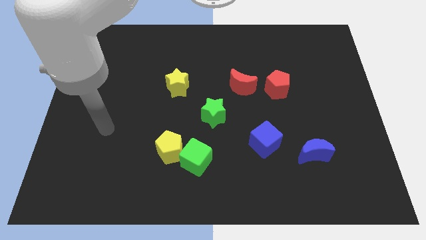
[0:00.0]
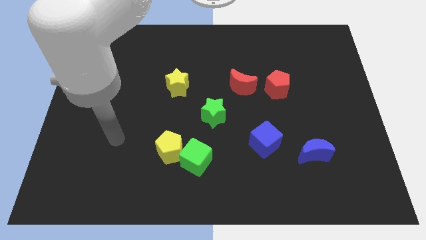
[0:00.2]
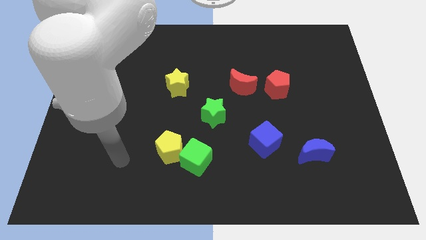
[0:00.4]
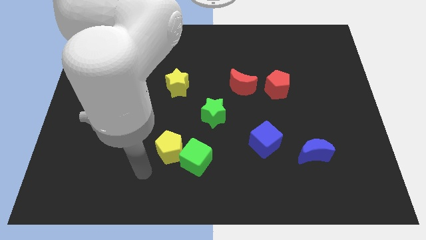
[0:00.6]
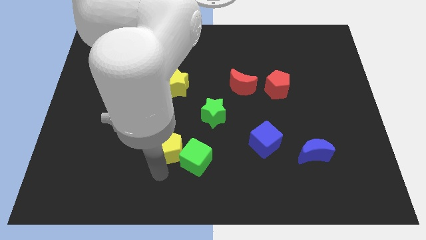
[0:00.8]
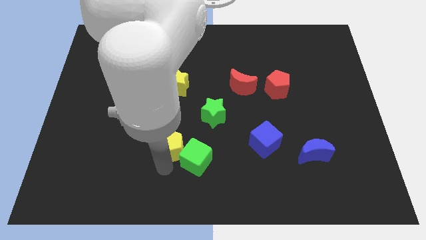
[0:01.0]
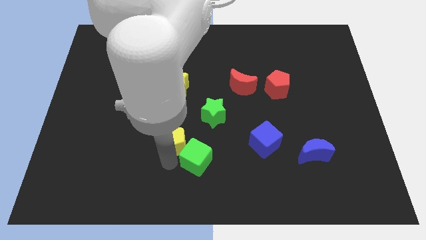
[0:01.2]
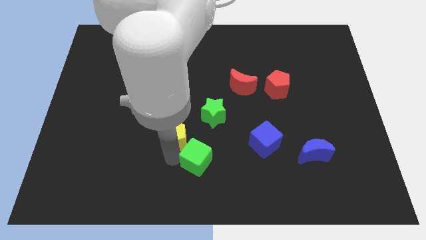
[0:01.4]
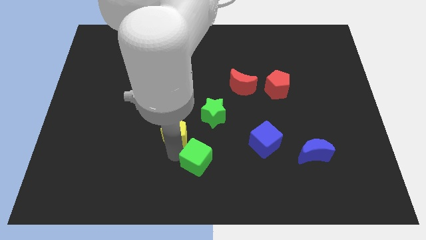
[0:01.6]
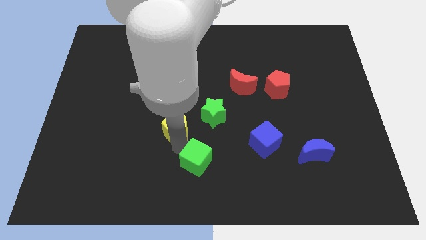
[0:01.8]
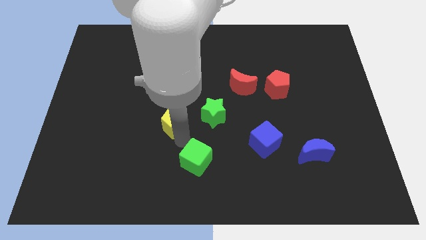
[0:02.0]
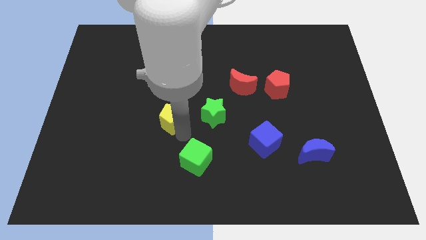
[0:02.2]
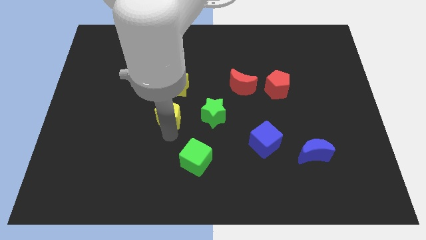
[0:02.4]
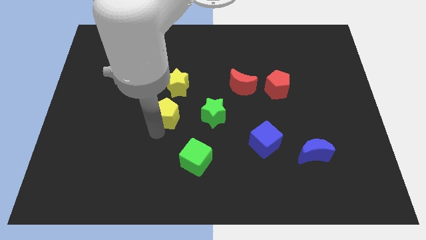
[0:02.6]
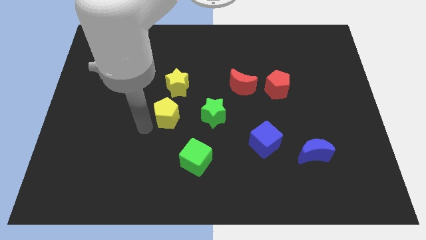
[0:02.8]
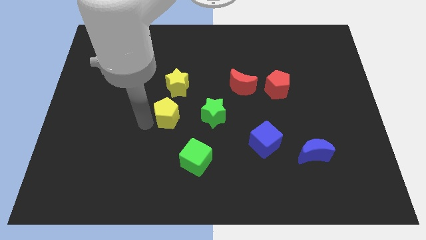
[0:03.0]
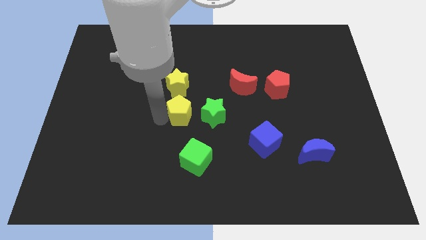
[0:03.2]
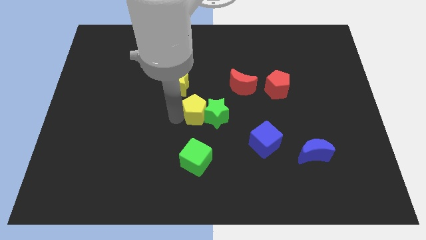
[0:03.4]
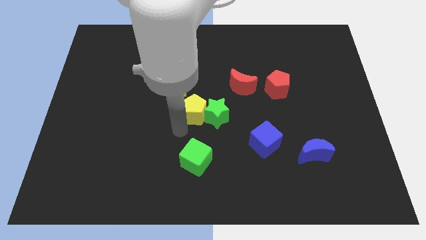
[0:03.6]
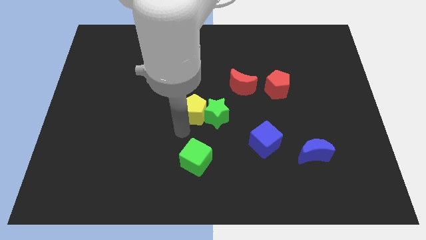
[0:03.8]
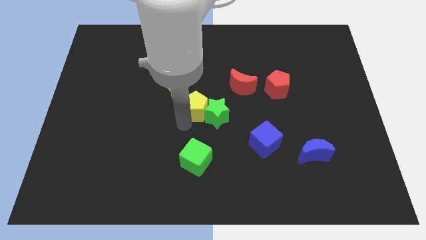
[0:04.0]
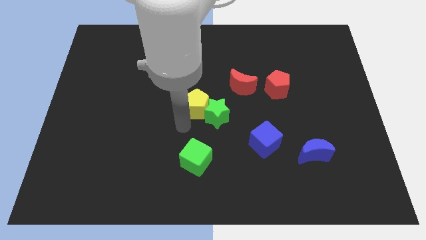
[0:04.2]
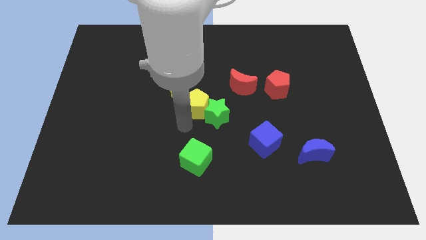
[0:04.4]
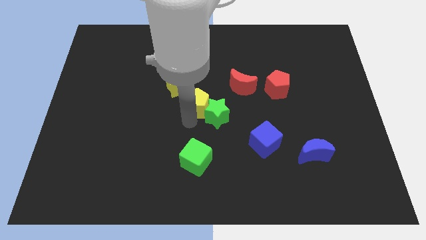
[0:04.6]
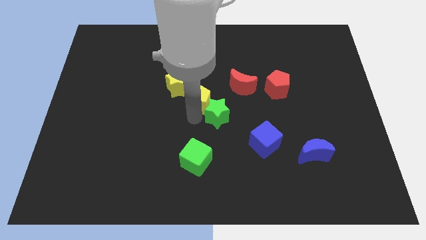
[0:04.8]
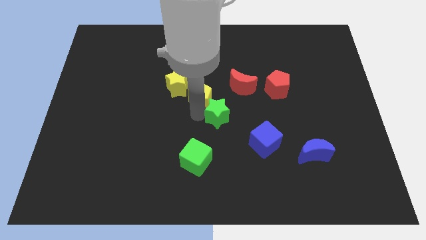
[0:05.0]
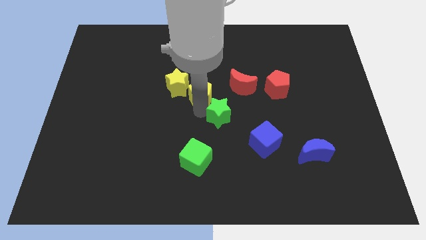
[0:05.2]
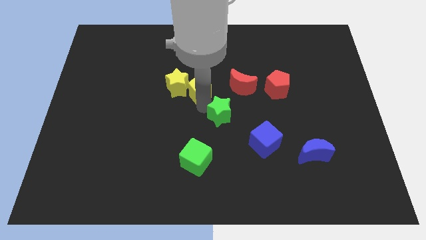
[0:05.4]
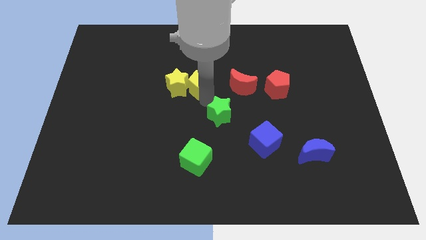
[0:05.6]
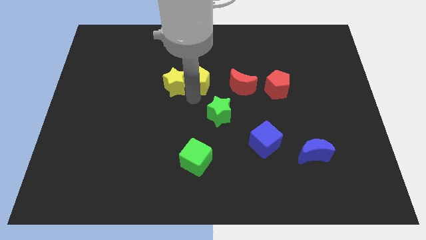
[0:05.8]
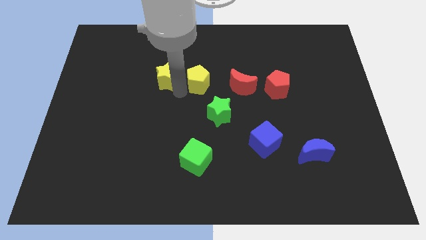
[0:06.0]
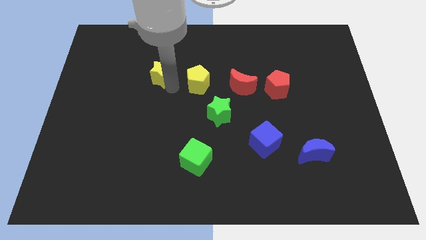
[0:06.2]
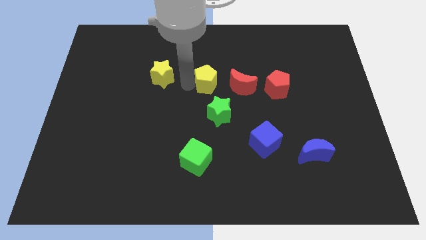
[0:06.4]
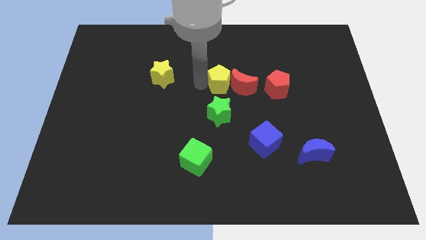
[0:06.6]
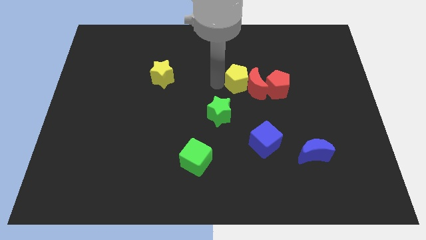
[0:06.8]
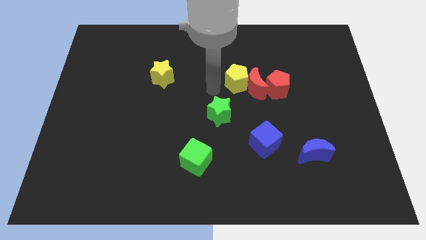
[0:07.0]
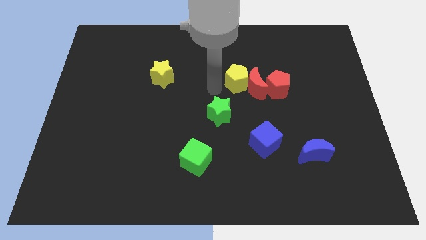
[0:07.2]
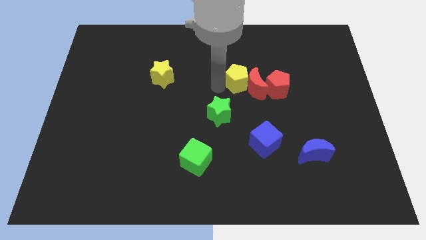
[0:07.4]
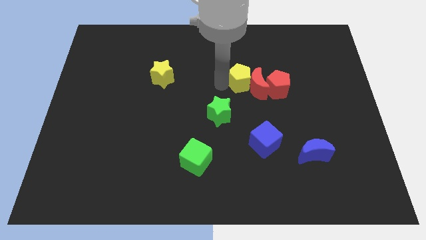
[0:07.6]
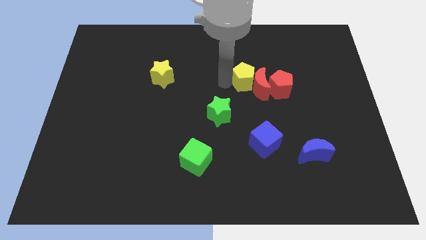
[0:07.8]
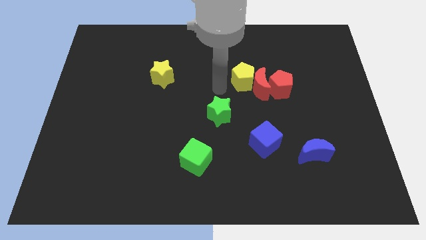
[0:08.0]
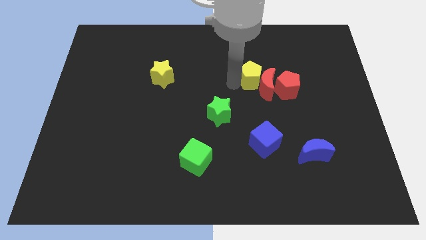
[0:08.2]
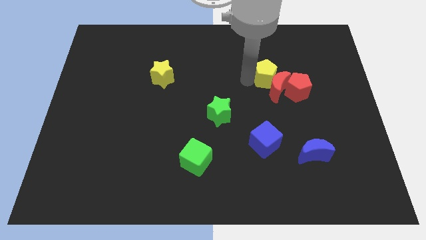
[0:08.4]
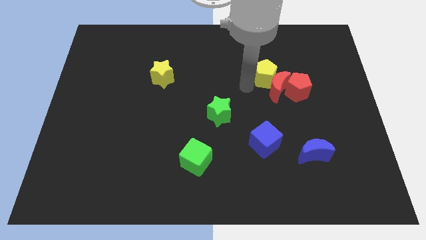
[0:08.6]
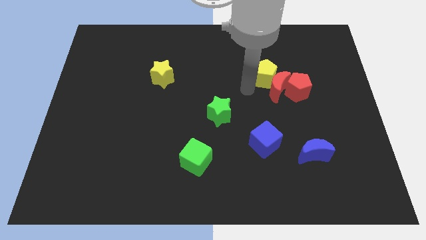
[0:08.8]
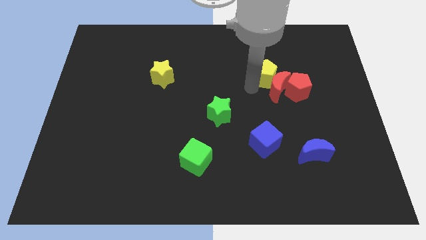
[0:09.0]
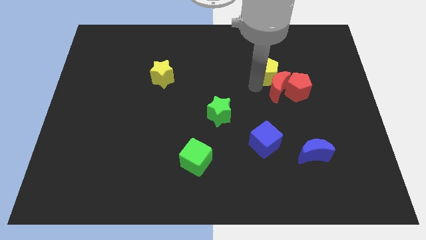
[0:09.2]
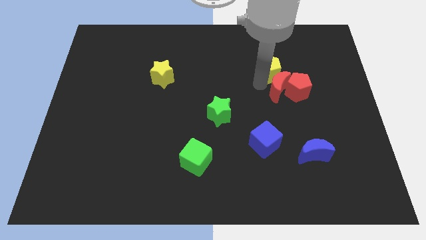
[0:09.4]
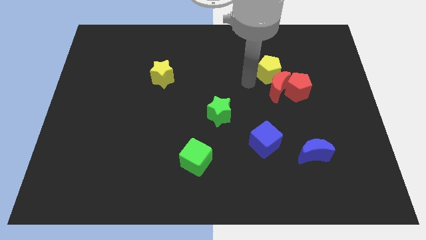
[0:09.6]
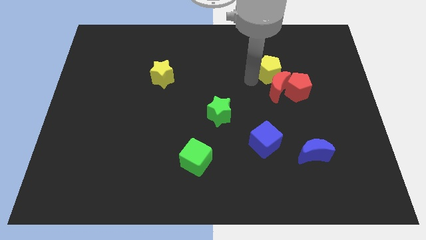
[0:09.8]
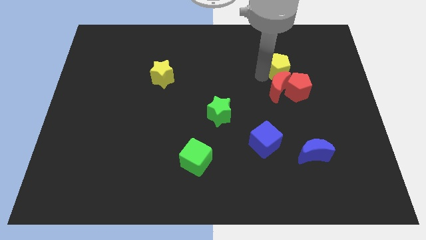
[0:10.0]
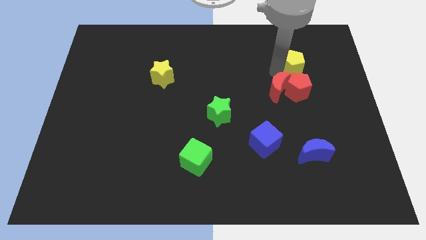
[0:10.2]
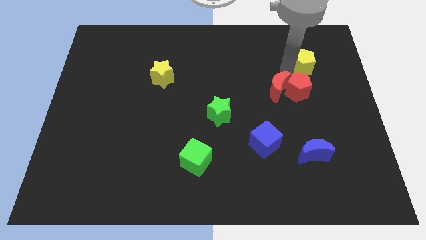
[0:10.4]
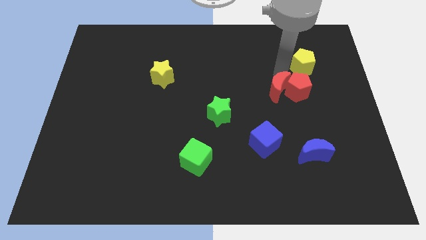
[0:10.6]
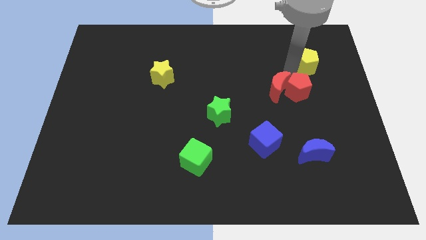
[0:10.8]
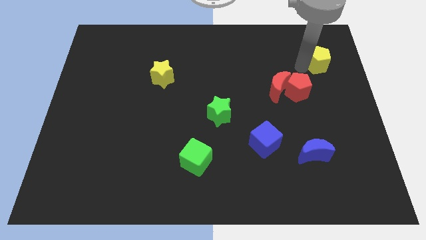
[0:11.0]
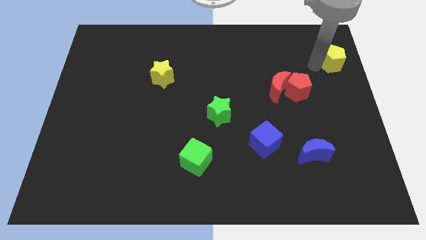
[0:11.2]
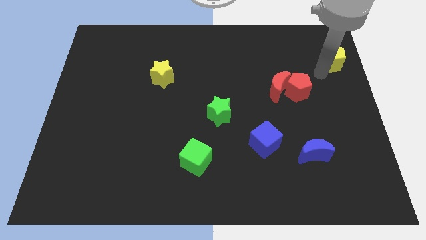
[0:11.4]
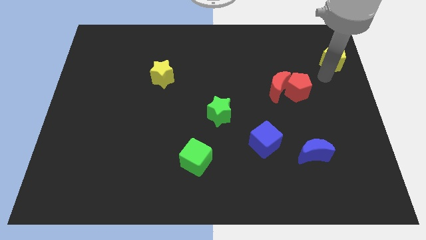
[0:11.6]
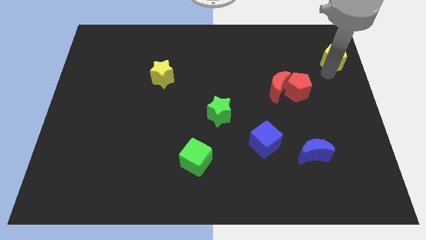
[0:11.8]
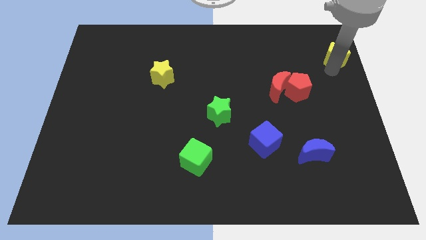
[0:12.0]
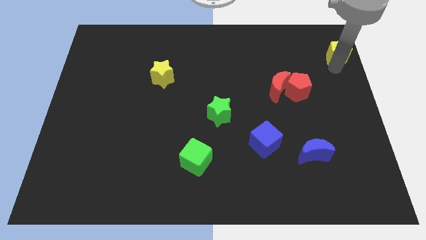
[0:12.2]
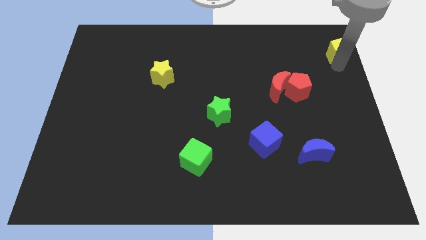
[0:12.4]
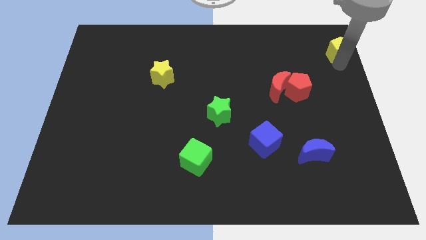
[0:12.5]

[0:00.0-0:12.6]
push the yellow pentagon to the upper right corner

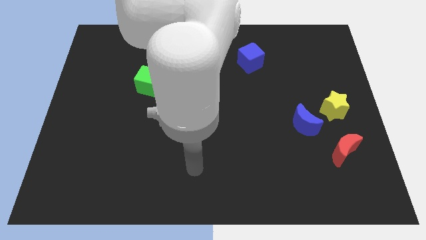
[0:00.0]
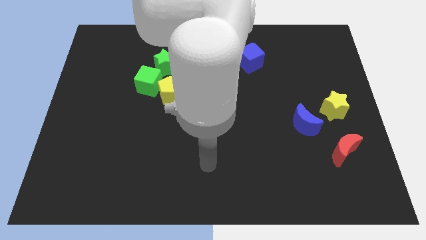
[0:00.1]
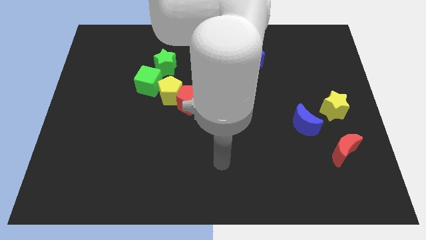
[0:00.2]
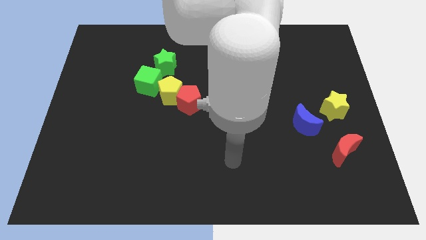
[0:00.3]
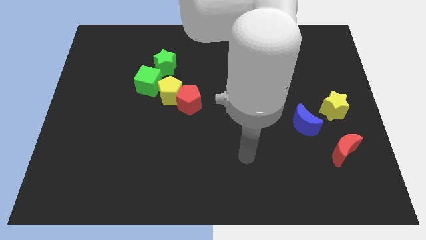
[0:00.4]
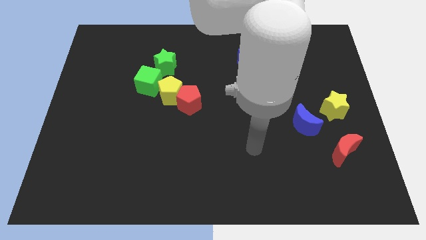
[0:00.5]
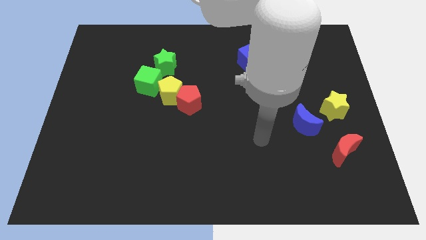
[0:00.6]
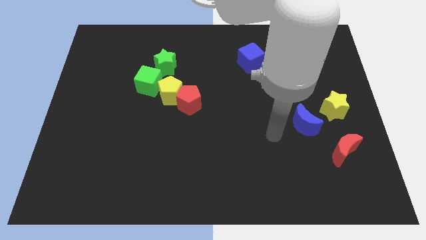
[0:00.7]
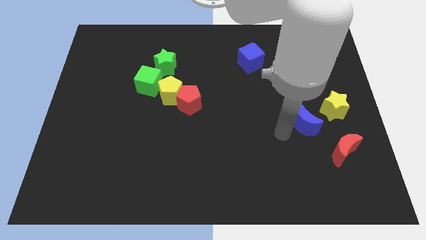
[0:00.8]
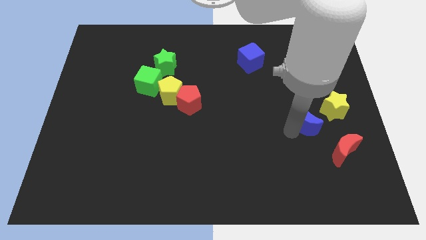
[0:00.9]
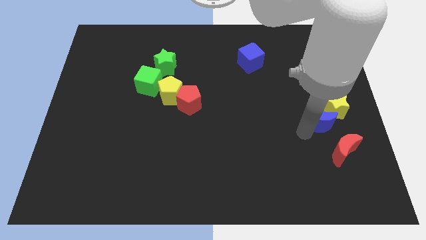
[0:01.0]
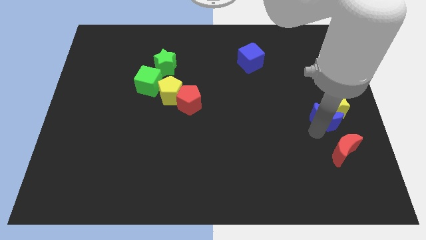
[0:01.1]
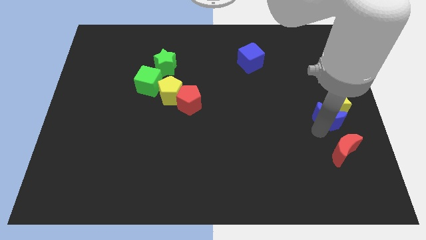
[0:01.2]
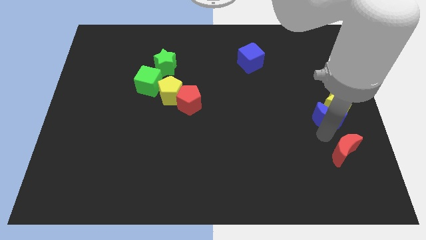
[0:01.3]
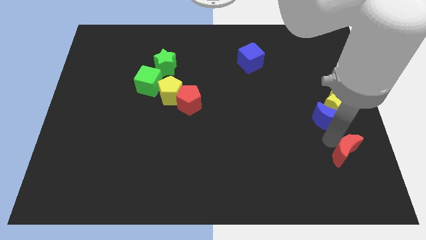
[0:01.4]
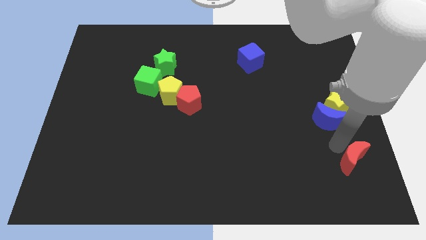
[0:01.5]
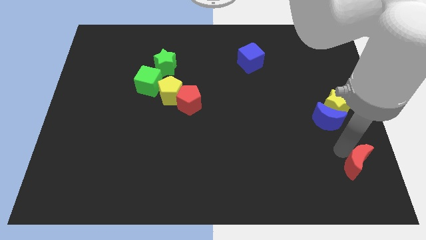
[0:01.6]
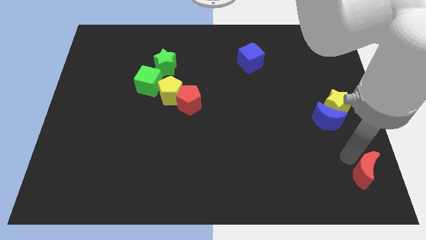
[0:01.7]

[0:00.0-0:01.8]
put the red moon to the lower right corner
